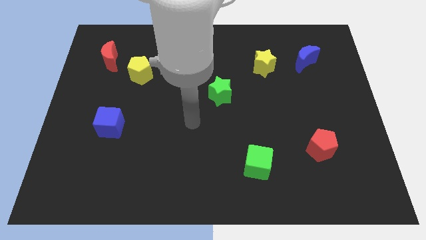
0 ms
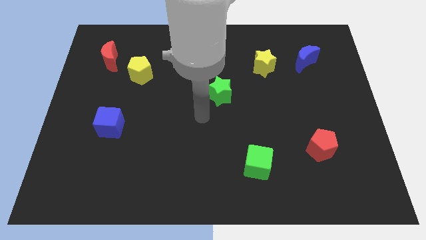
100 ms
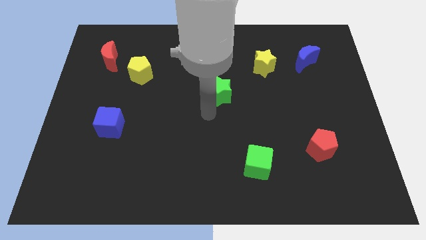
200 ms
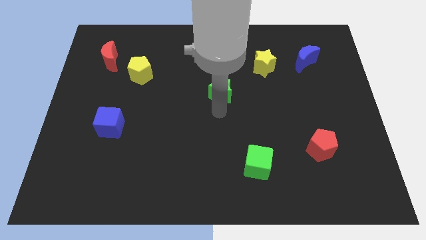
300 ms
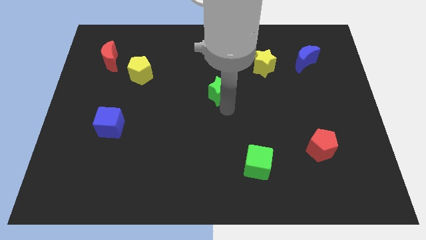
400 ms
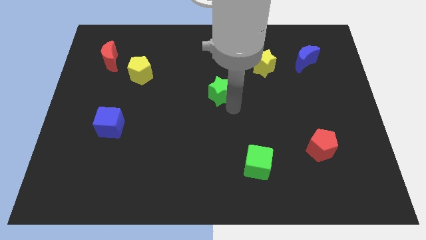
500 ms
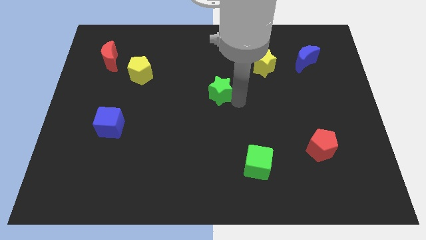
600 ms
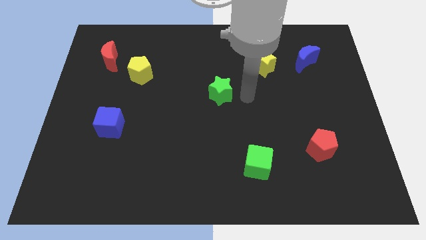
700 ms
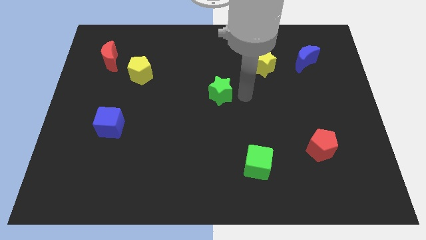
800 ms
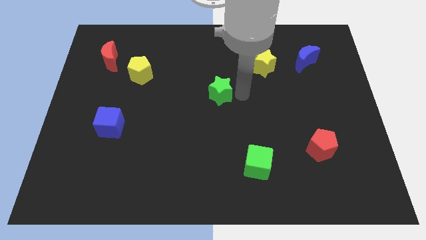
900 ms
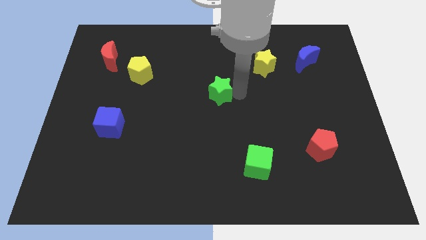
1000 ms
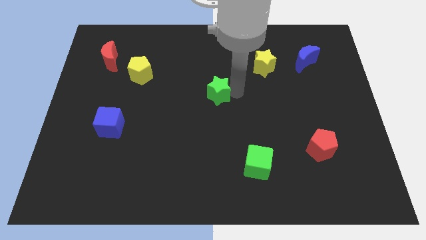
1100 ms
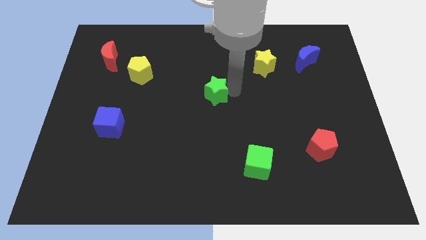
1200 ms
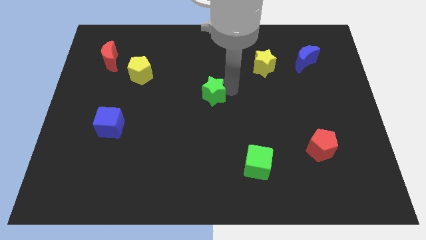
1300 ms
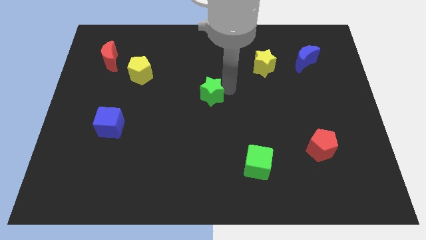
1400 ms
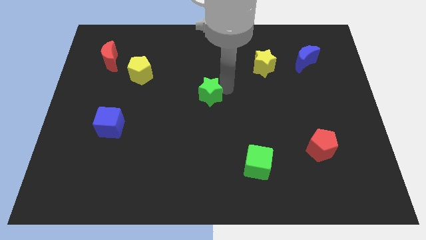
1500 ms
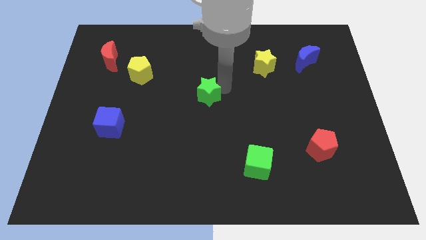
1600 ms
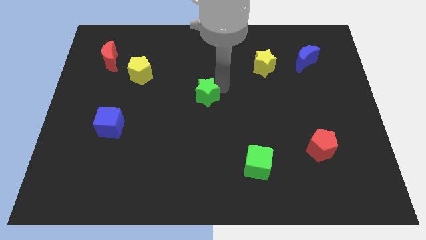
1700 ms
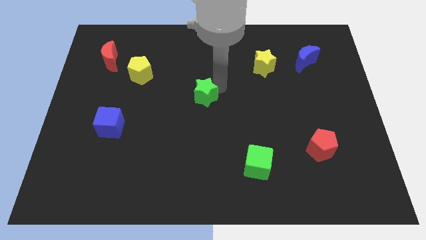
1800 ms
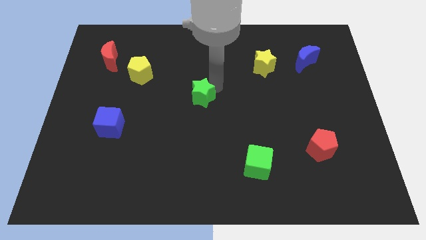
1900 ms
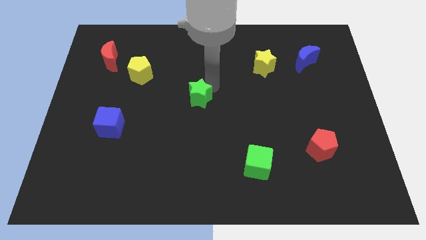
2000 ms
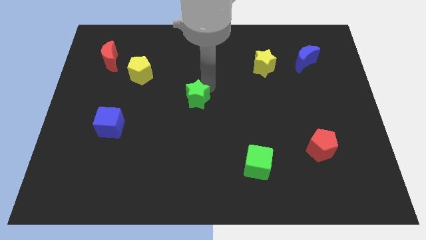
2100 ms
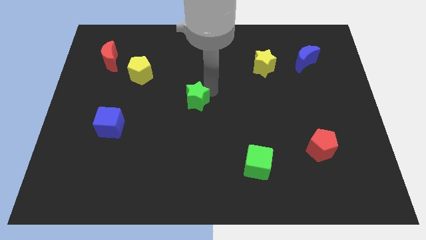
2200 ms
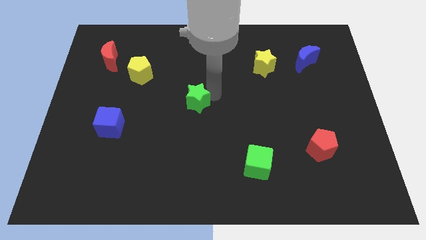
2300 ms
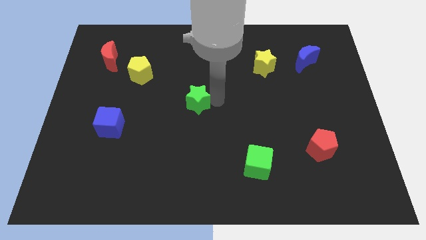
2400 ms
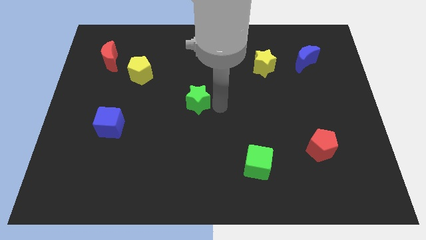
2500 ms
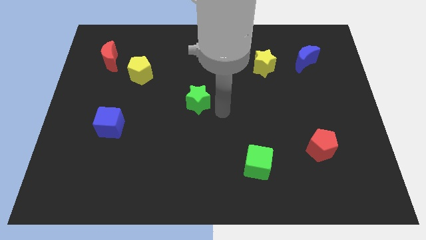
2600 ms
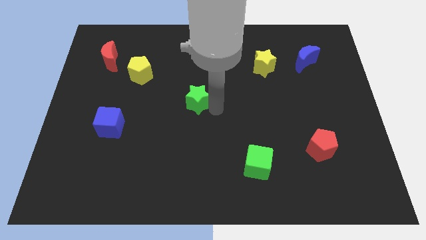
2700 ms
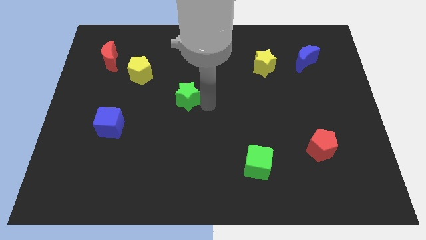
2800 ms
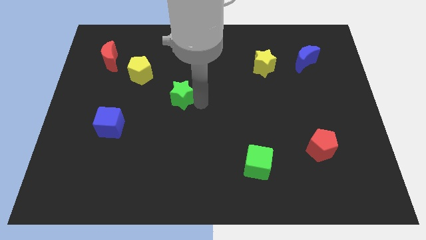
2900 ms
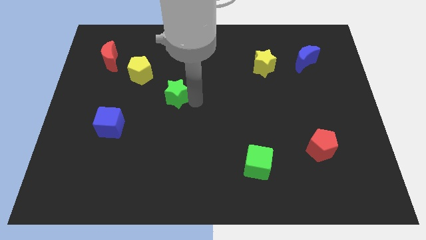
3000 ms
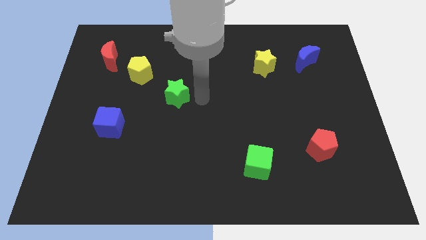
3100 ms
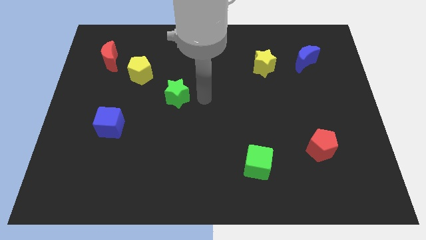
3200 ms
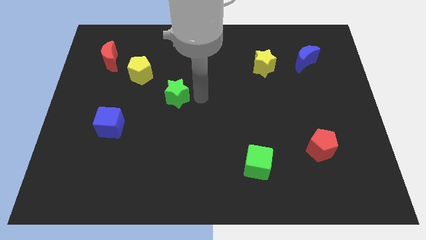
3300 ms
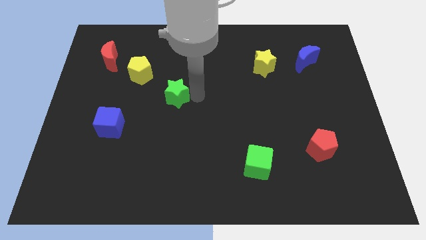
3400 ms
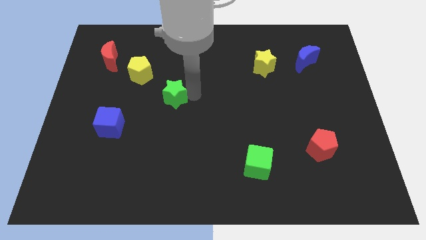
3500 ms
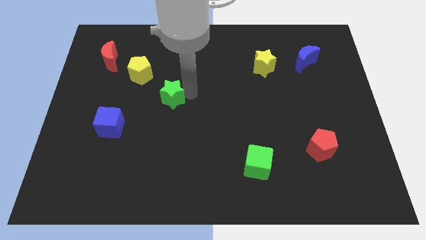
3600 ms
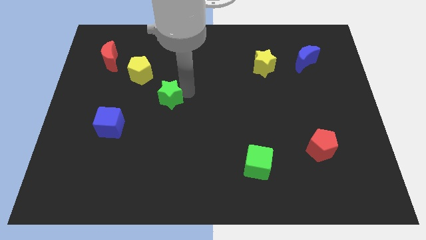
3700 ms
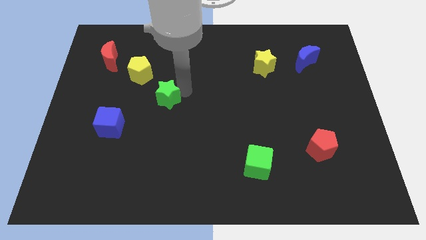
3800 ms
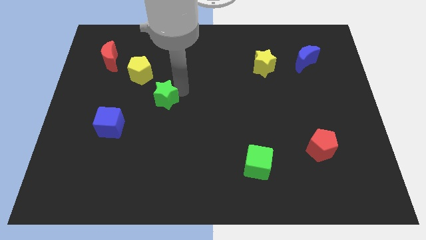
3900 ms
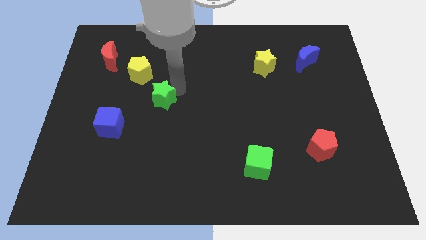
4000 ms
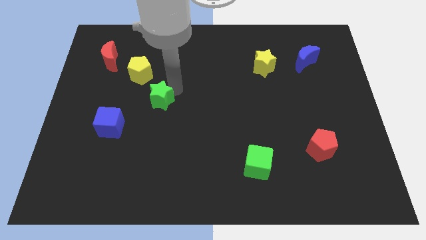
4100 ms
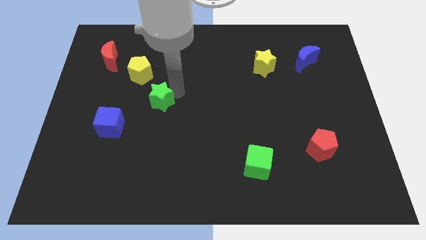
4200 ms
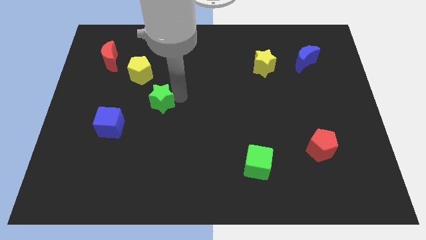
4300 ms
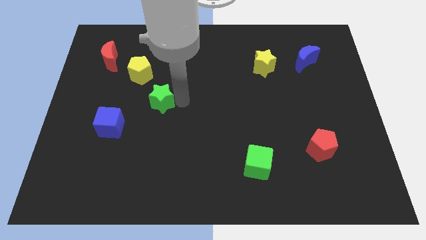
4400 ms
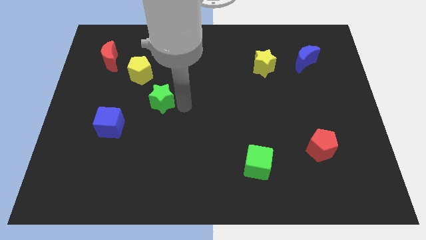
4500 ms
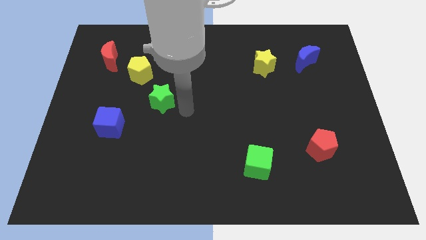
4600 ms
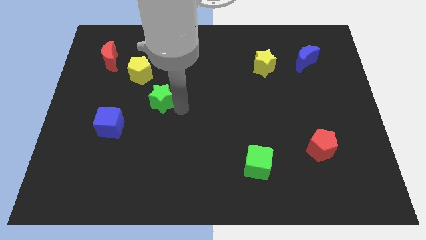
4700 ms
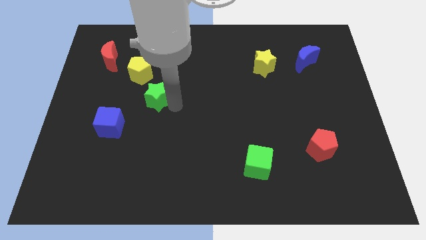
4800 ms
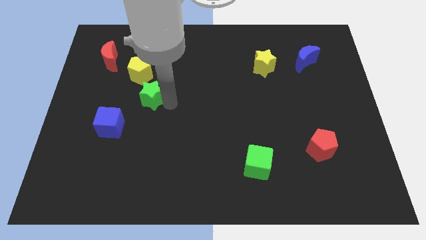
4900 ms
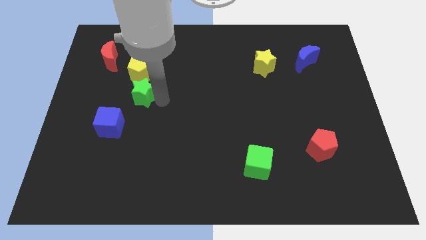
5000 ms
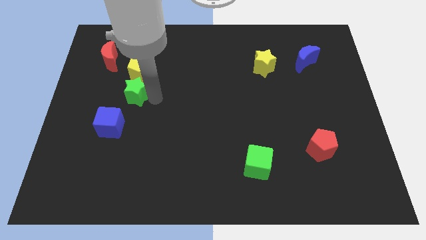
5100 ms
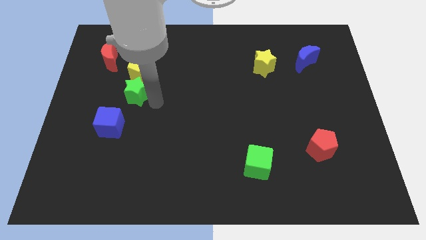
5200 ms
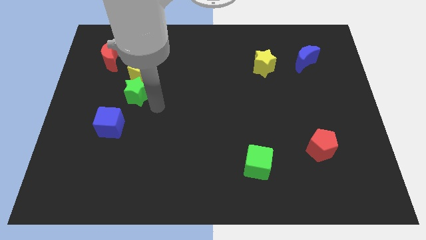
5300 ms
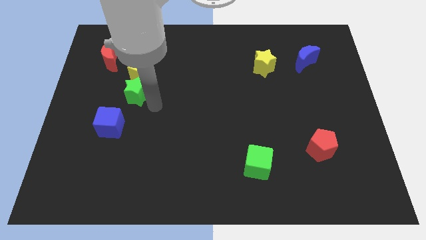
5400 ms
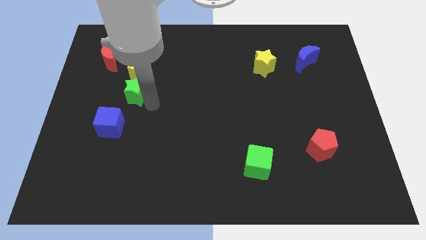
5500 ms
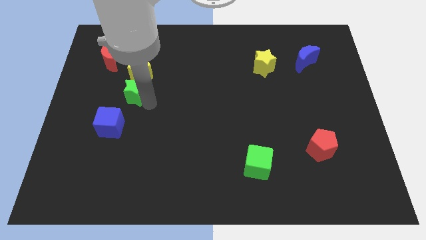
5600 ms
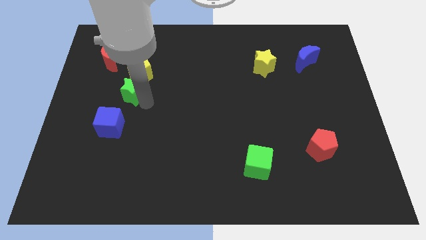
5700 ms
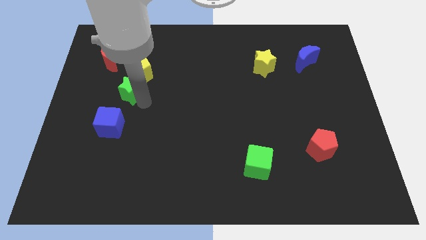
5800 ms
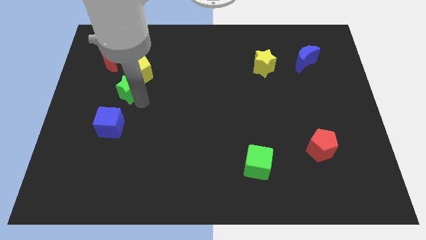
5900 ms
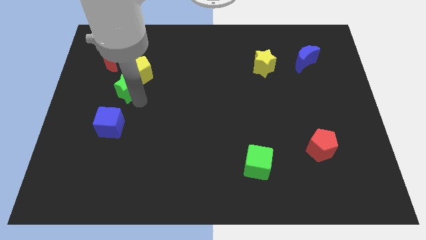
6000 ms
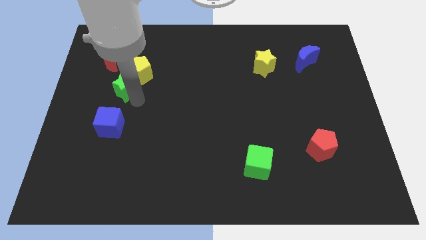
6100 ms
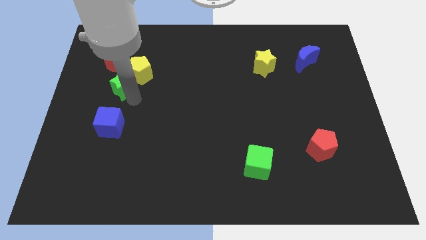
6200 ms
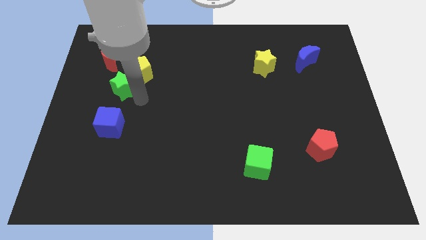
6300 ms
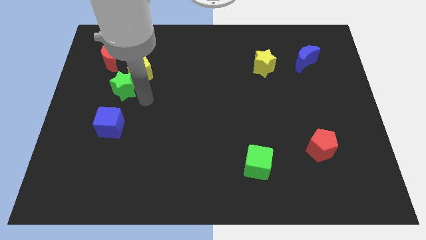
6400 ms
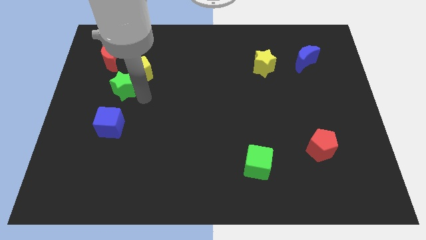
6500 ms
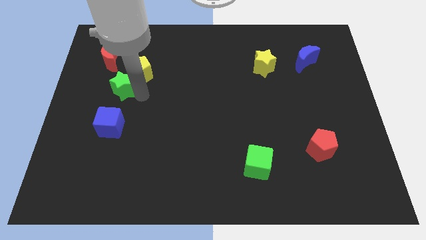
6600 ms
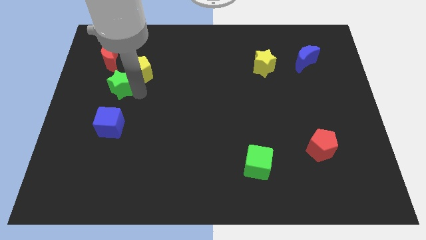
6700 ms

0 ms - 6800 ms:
put the green star to the left side of the yellow pentagon
